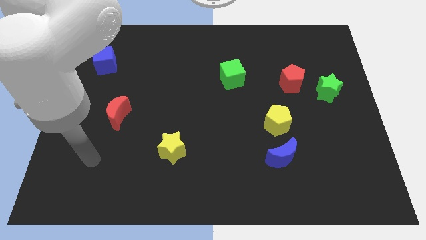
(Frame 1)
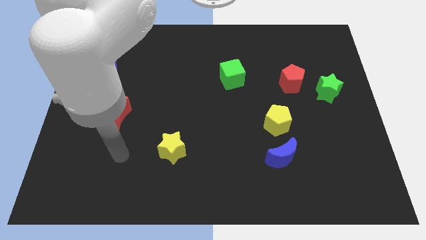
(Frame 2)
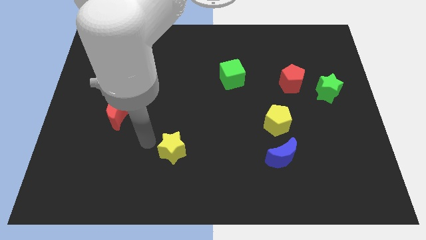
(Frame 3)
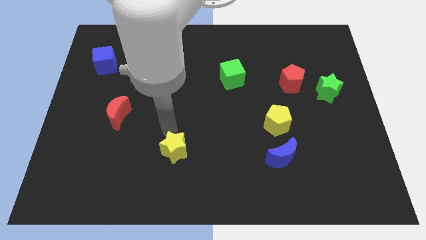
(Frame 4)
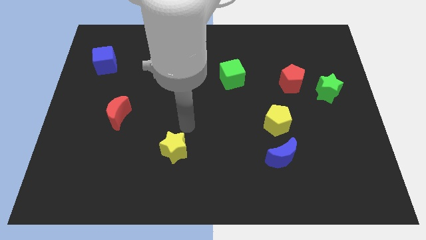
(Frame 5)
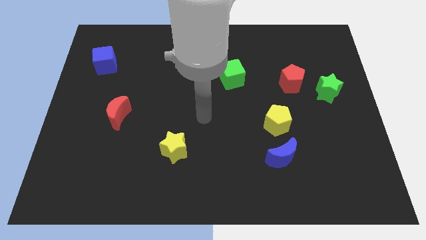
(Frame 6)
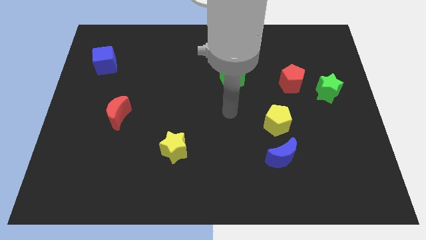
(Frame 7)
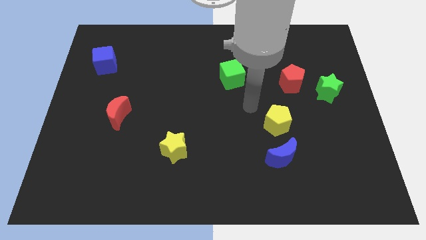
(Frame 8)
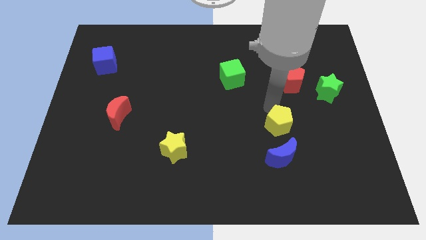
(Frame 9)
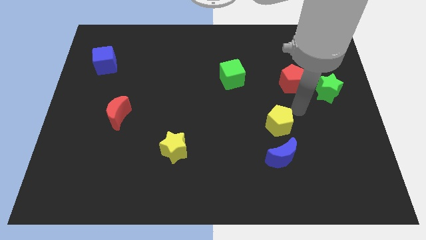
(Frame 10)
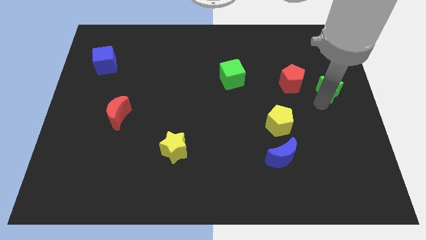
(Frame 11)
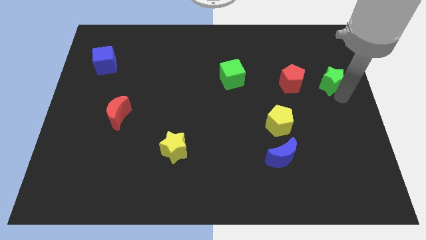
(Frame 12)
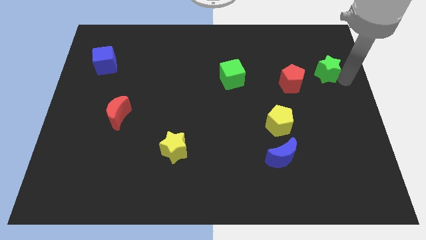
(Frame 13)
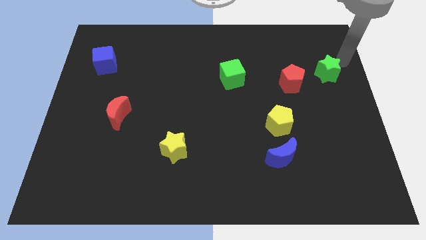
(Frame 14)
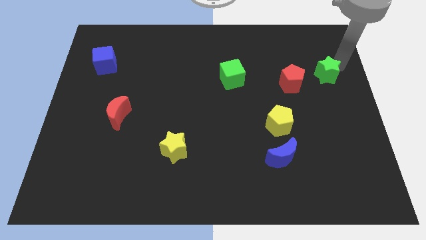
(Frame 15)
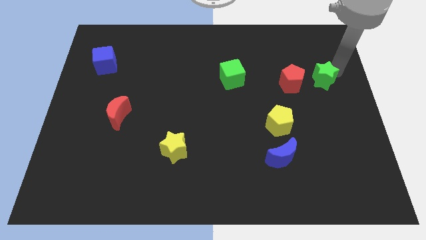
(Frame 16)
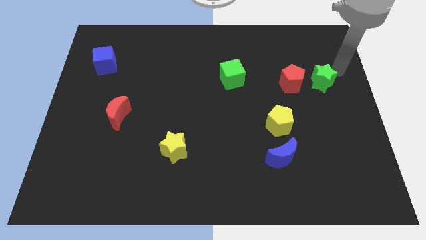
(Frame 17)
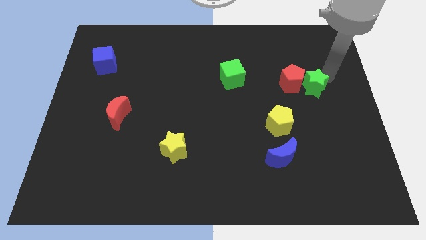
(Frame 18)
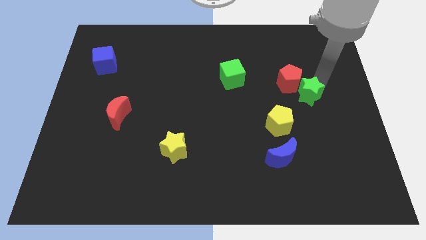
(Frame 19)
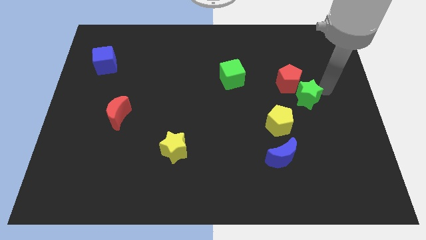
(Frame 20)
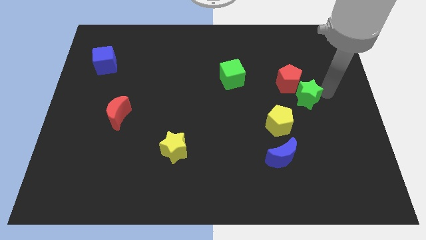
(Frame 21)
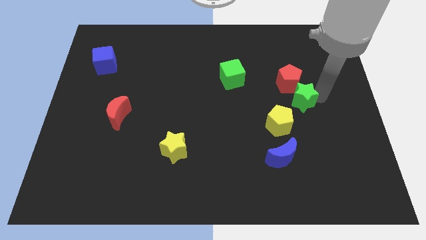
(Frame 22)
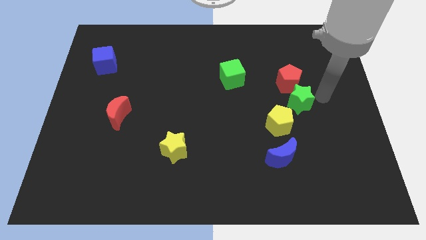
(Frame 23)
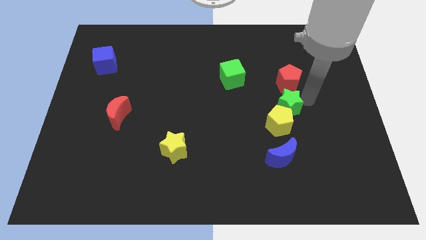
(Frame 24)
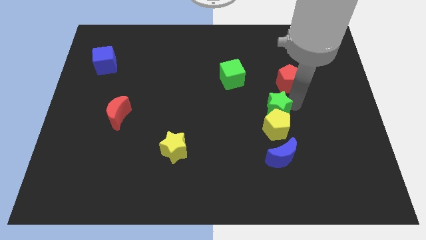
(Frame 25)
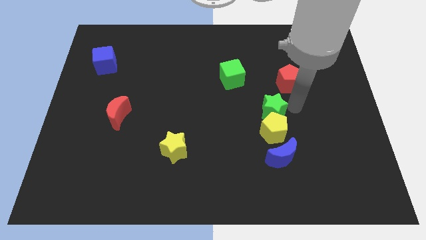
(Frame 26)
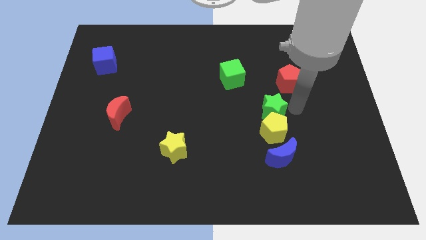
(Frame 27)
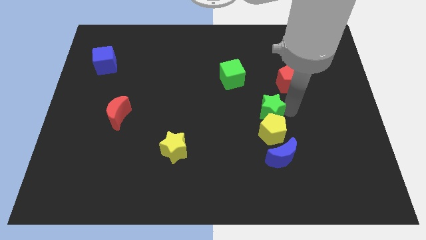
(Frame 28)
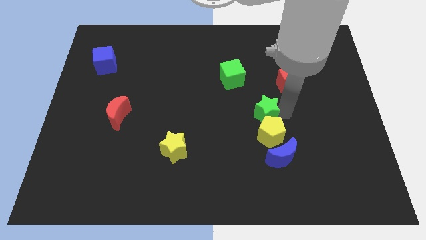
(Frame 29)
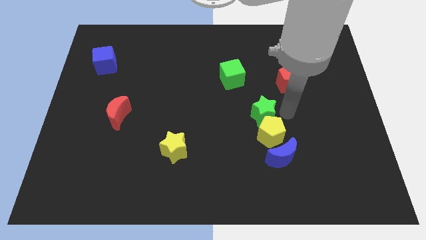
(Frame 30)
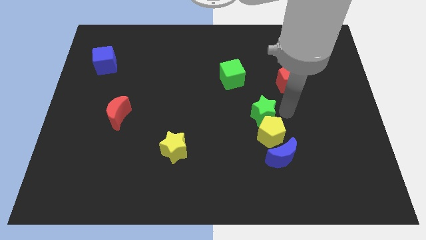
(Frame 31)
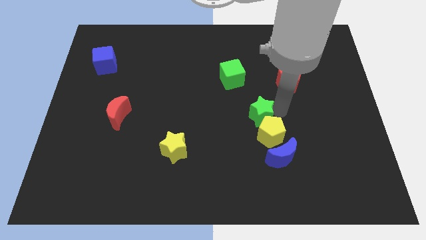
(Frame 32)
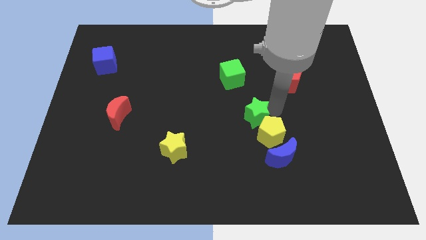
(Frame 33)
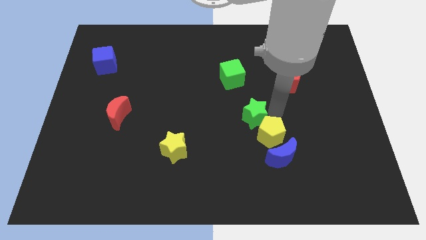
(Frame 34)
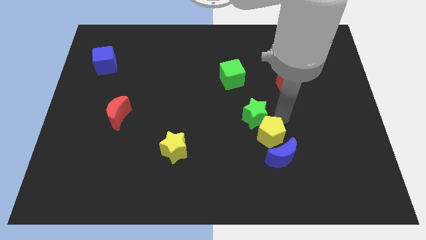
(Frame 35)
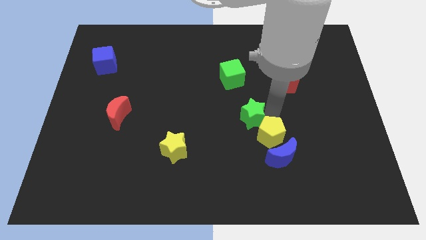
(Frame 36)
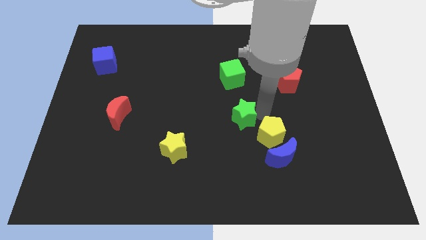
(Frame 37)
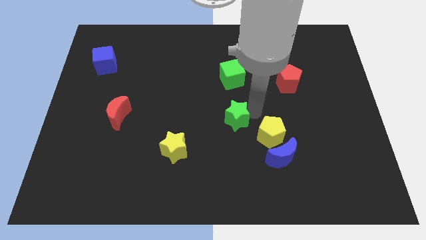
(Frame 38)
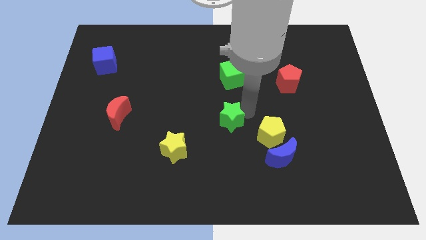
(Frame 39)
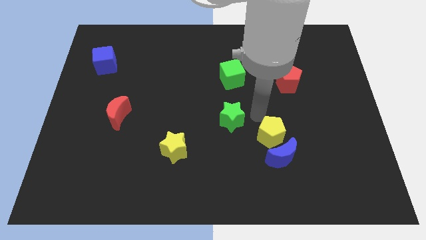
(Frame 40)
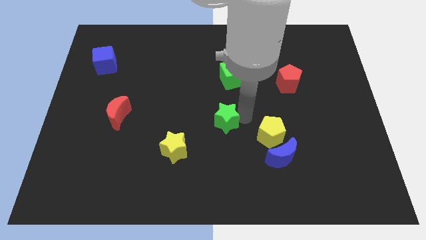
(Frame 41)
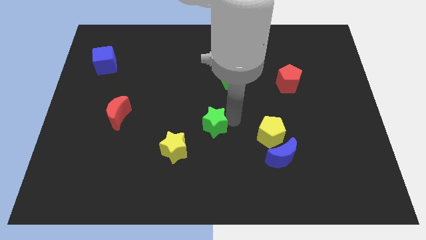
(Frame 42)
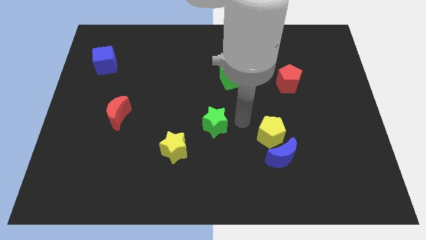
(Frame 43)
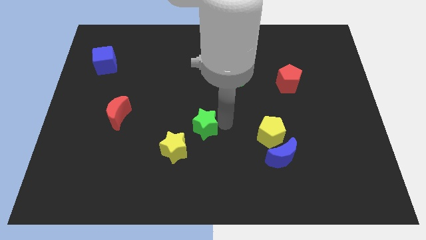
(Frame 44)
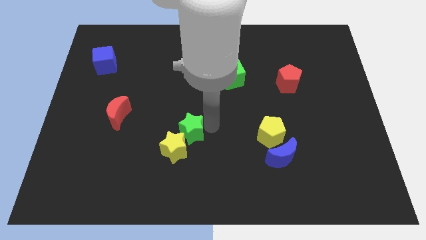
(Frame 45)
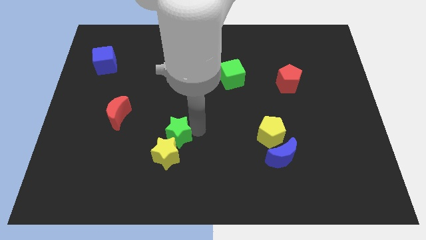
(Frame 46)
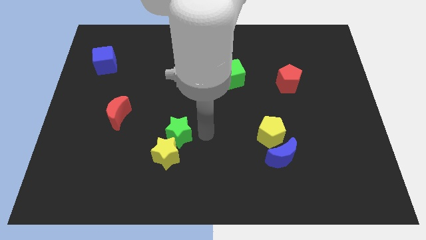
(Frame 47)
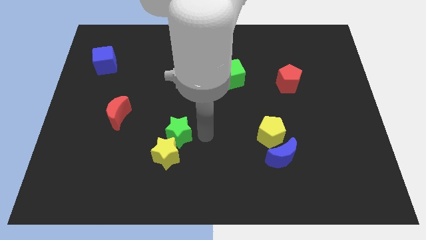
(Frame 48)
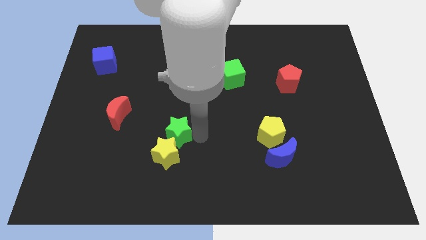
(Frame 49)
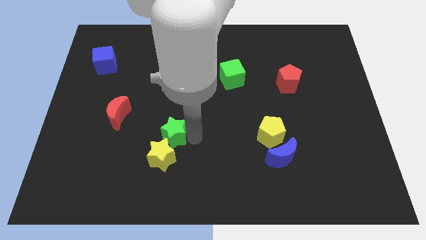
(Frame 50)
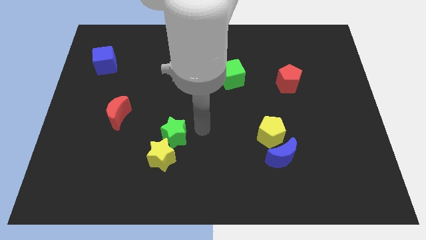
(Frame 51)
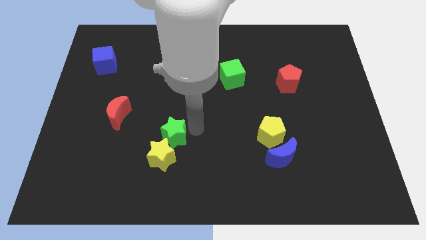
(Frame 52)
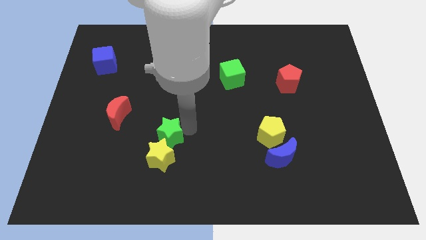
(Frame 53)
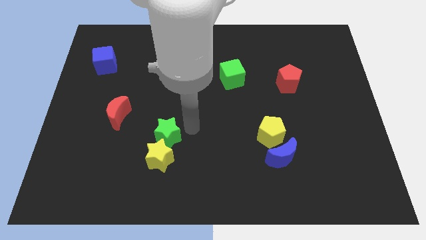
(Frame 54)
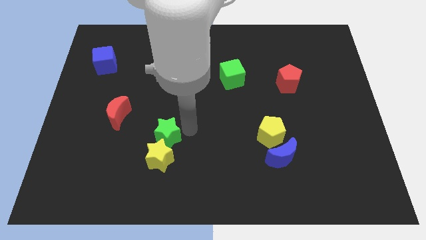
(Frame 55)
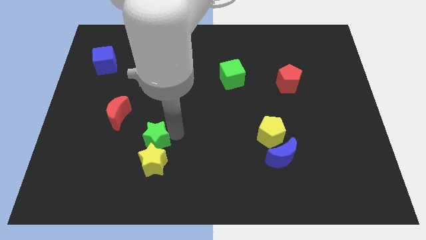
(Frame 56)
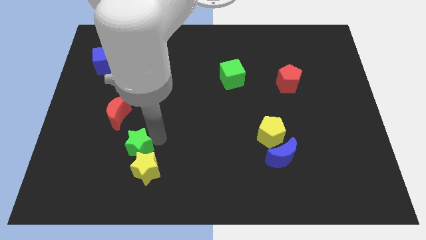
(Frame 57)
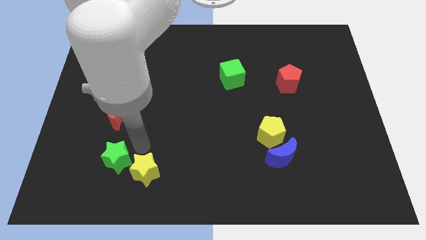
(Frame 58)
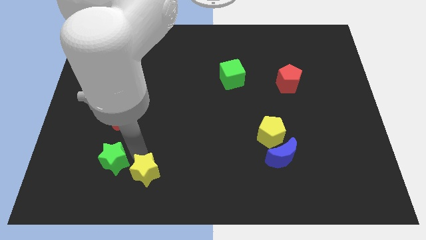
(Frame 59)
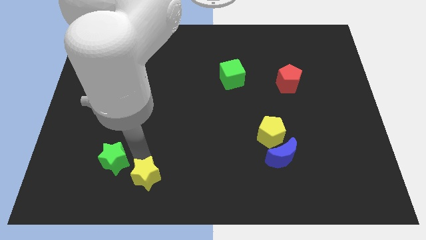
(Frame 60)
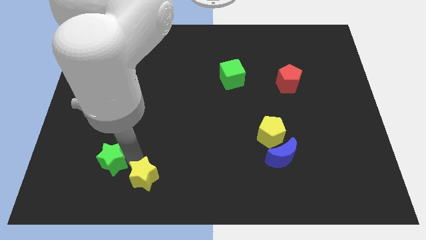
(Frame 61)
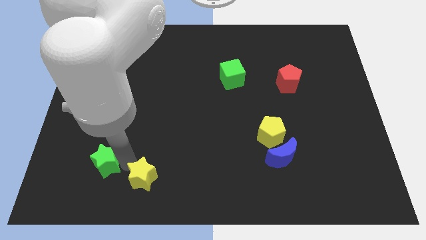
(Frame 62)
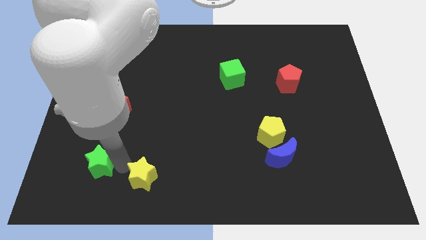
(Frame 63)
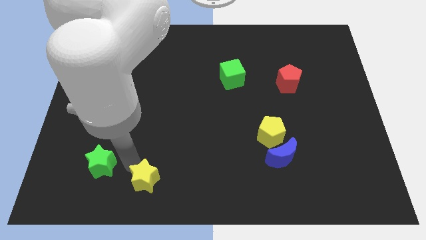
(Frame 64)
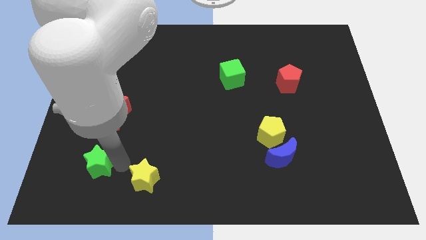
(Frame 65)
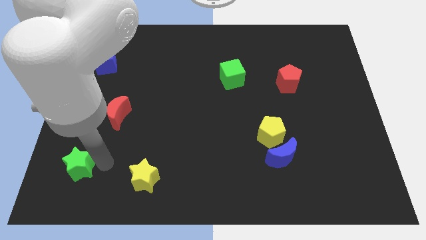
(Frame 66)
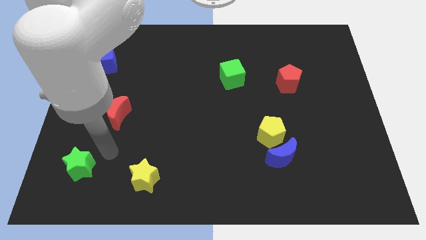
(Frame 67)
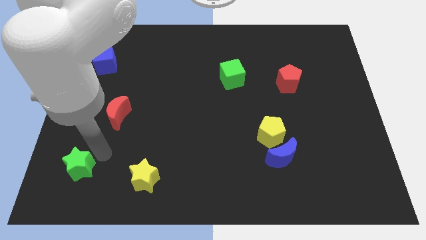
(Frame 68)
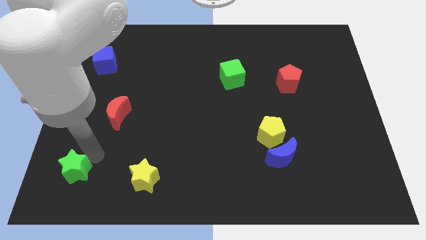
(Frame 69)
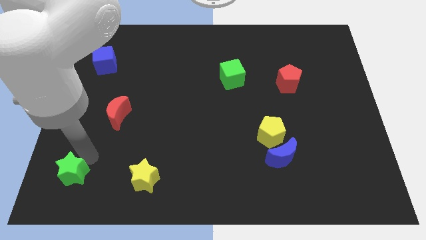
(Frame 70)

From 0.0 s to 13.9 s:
push the green star to the lower left corner
